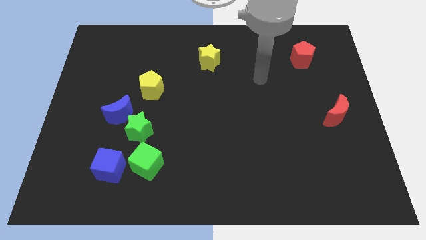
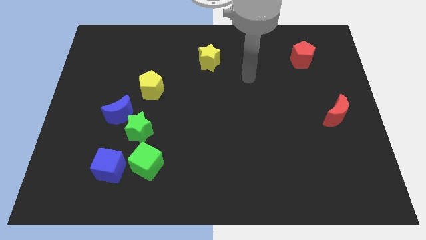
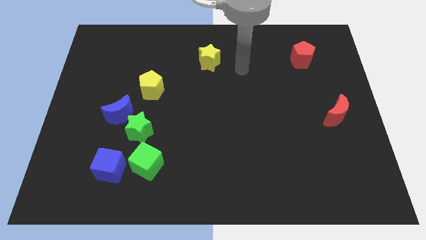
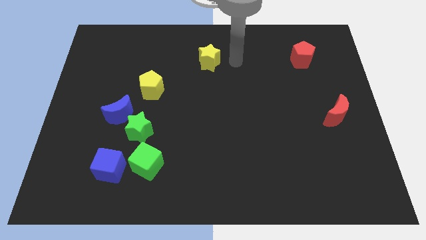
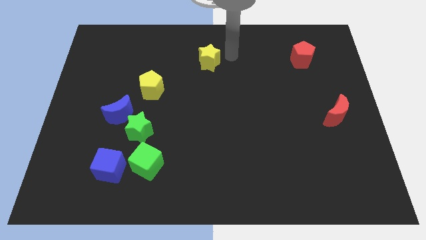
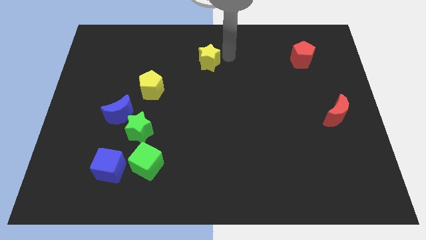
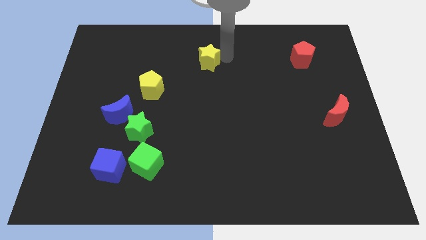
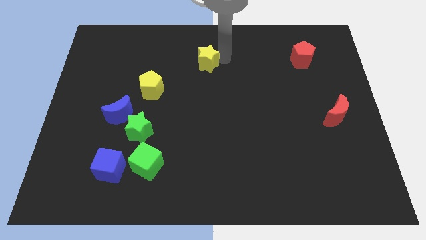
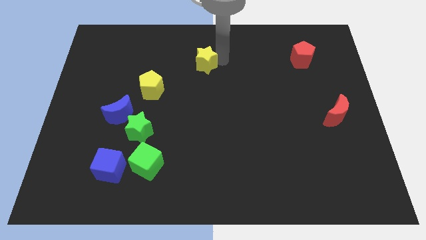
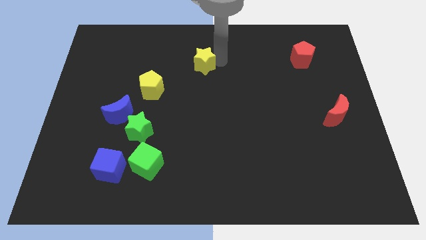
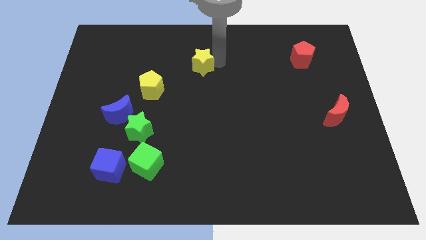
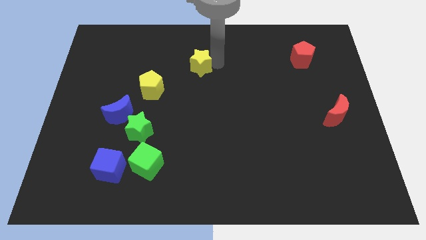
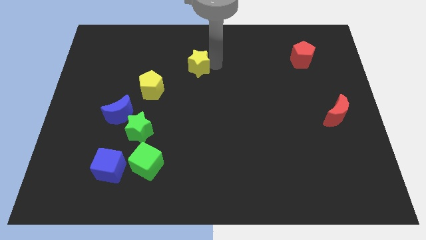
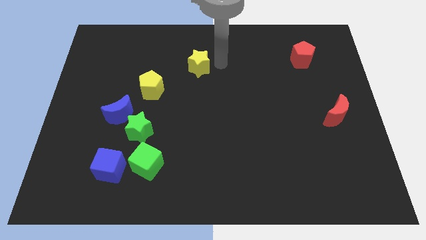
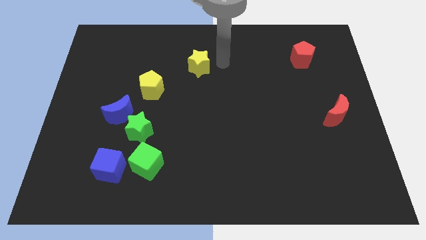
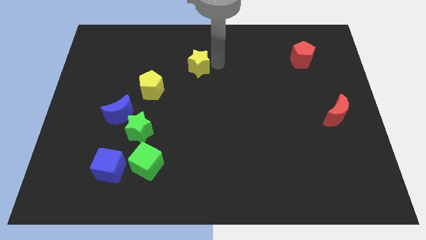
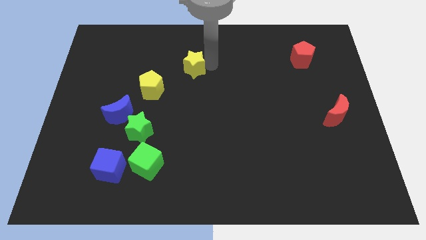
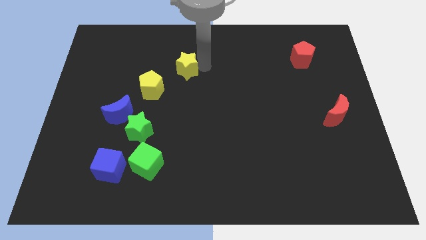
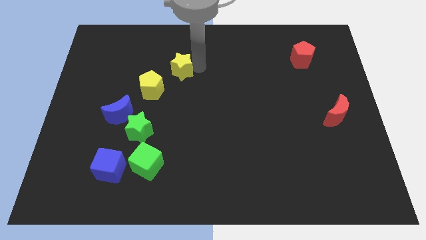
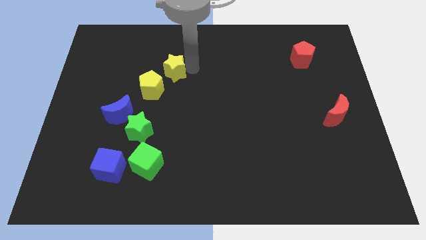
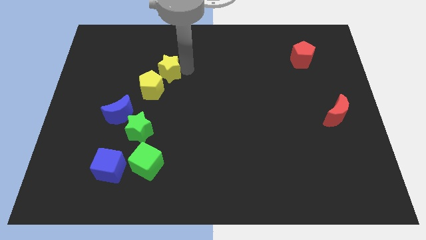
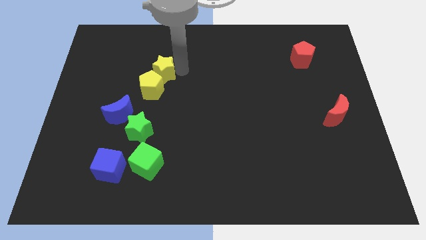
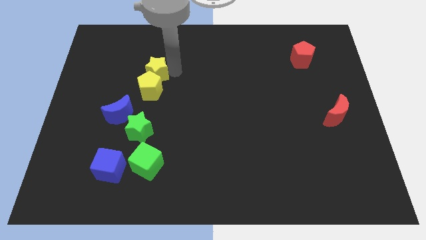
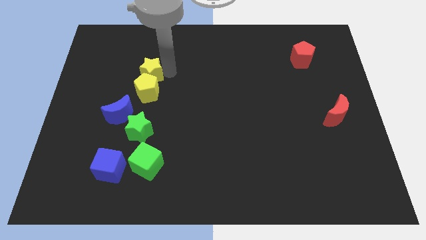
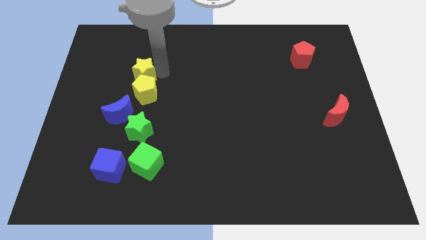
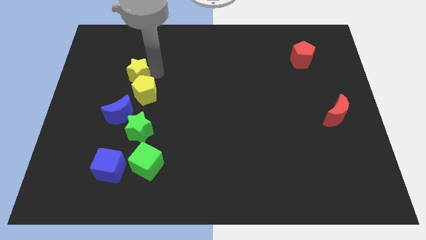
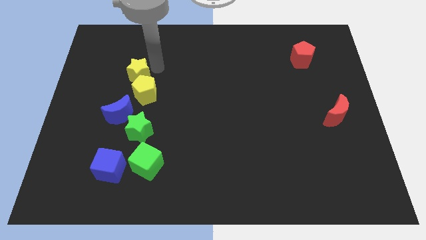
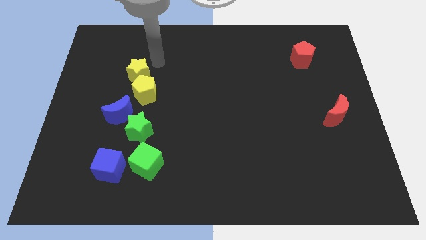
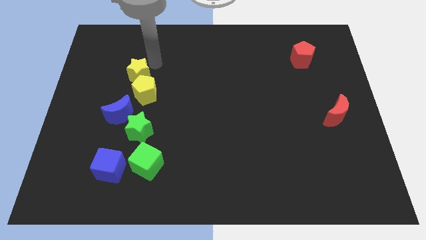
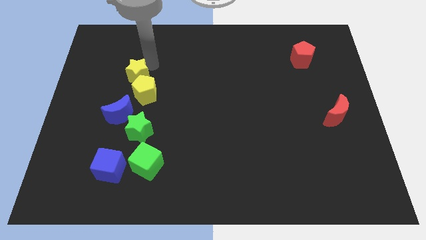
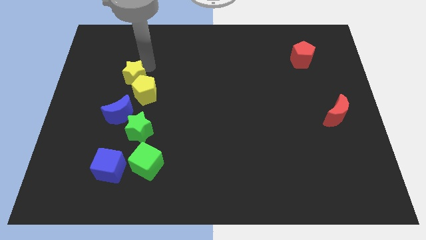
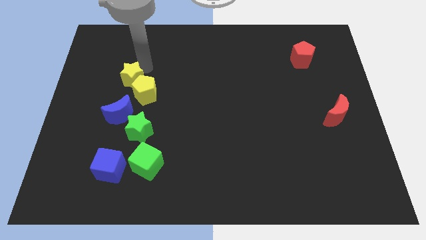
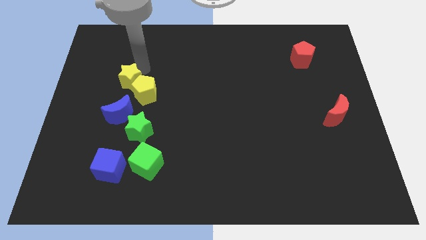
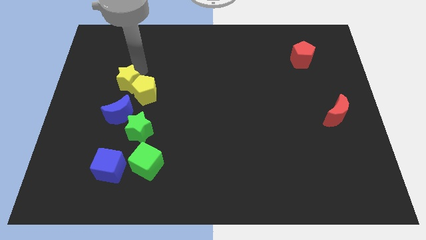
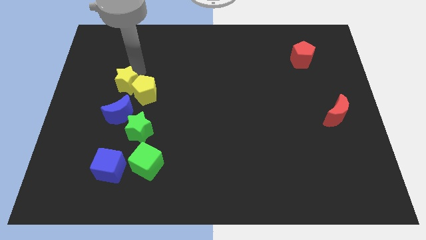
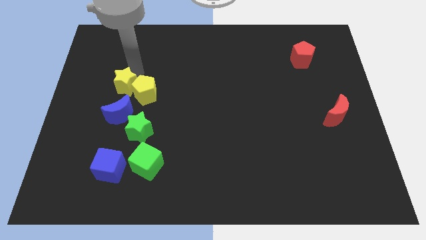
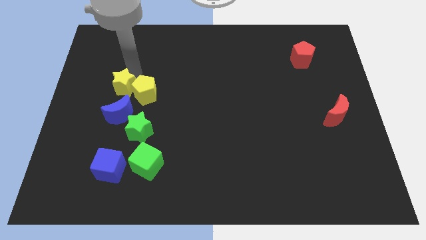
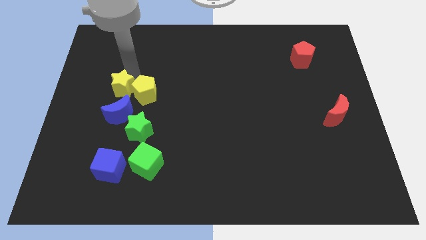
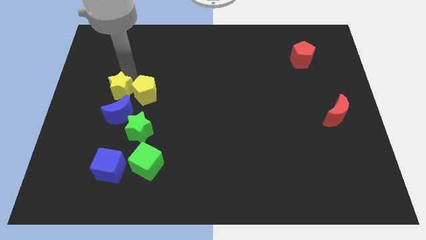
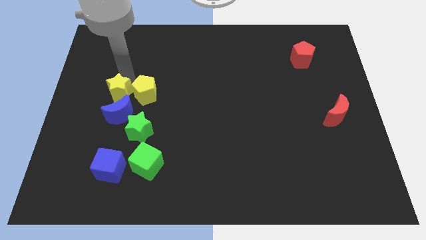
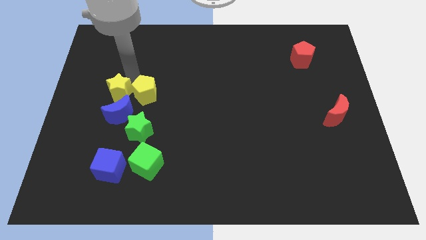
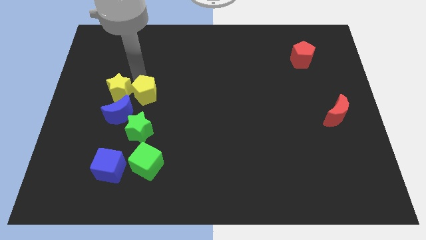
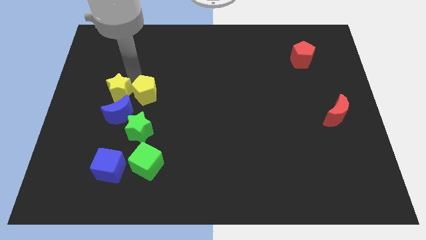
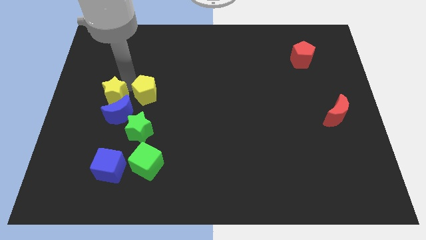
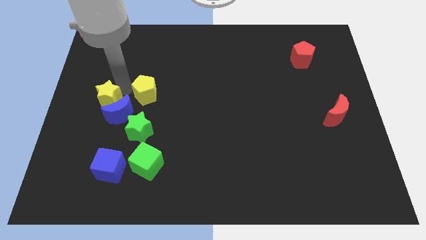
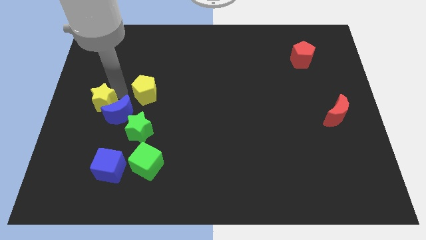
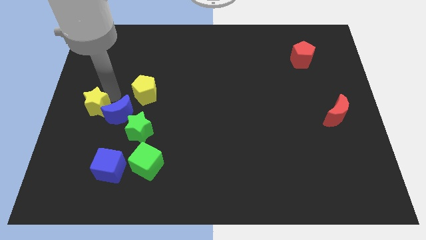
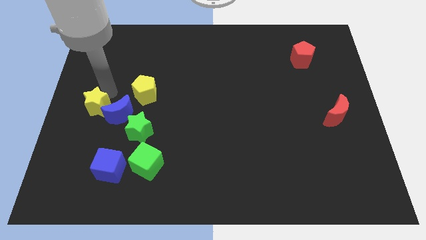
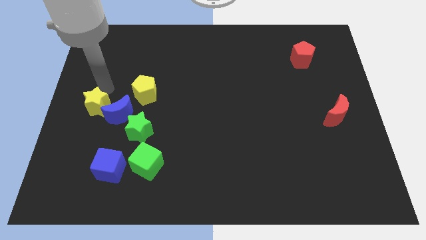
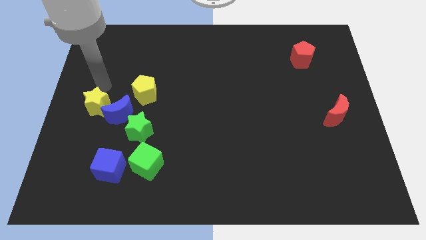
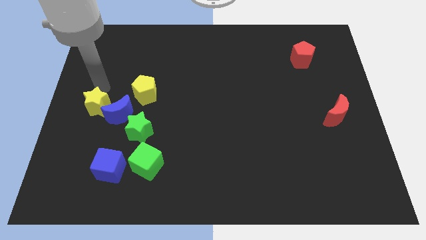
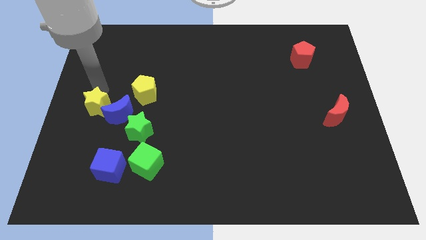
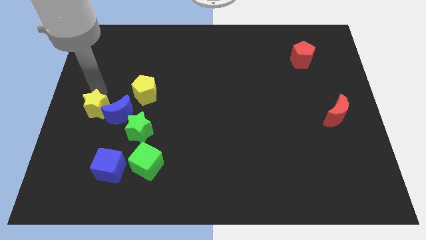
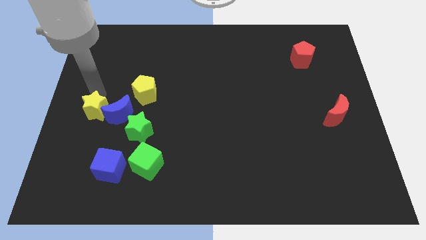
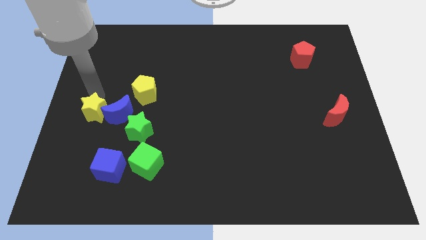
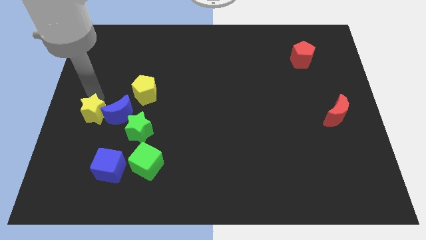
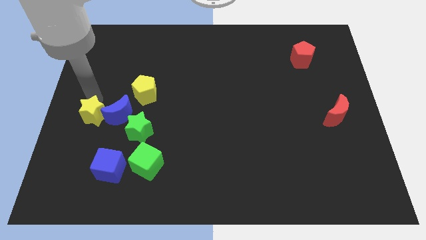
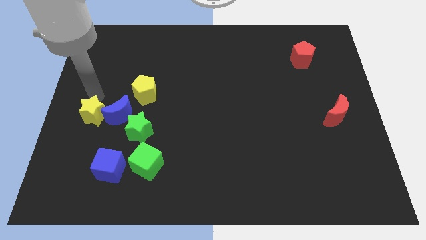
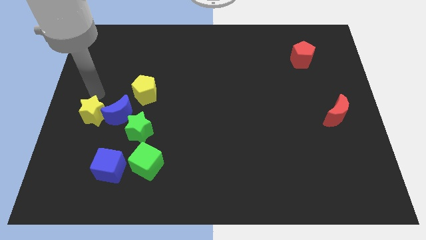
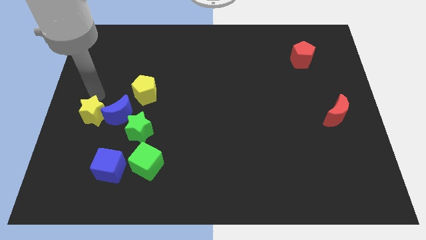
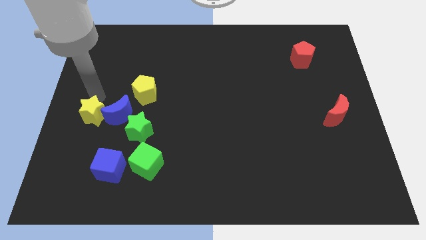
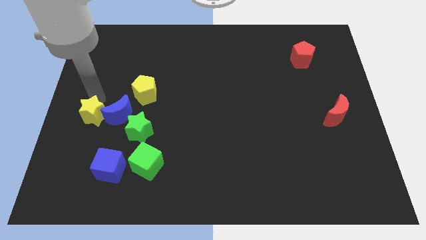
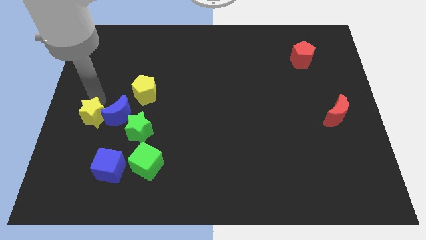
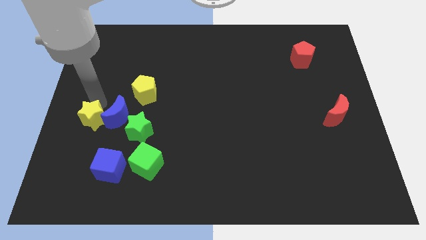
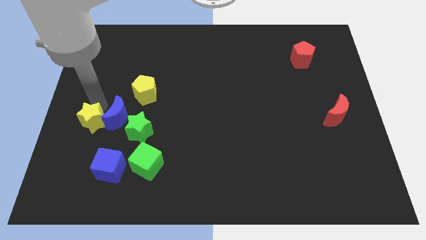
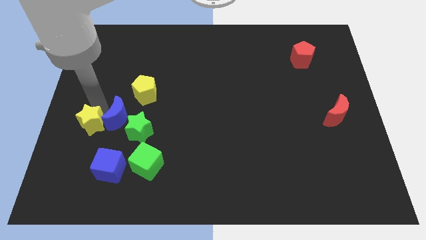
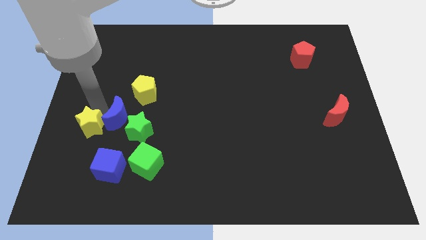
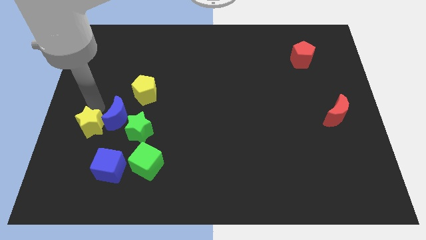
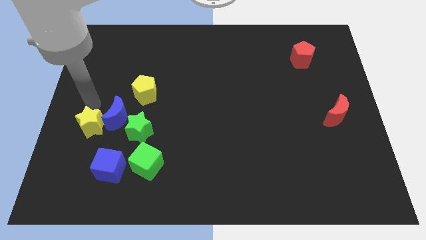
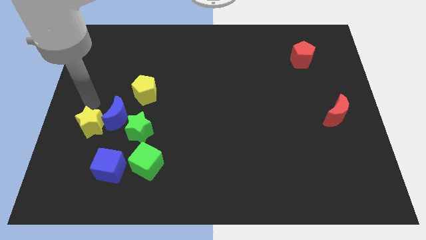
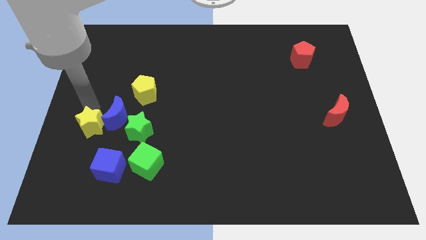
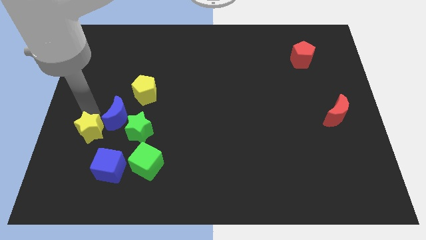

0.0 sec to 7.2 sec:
put the yellow star to the top left of the blue cube
